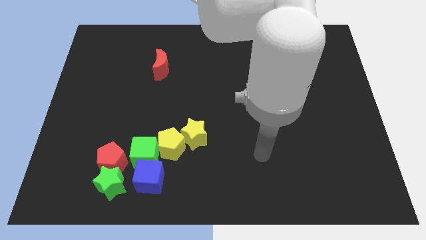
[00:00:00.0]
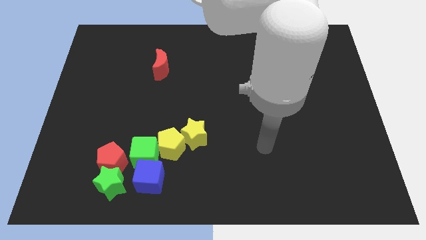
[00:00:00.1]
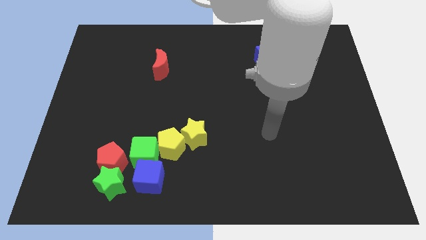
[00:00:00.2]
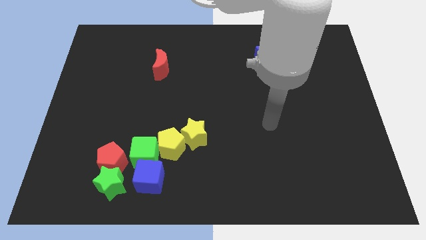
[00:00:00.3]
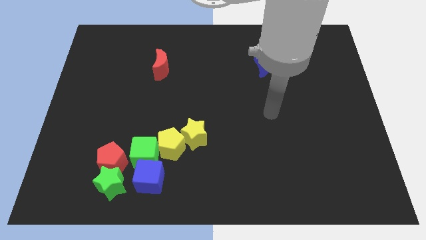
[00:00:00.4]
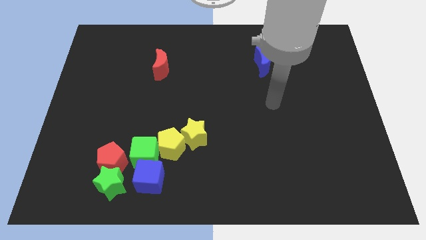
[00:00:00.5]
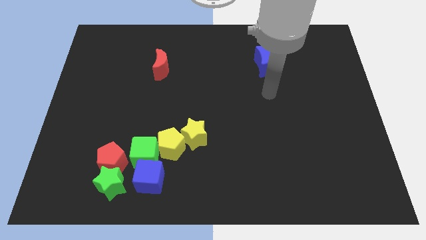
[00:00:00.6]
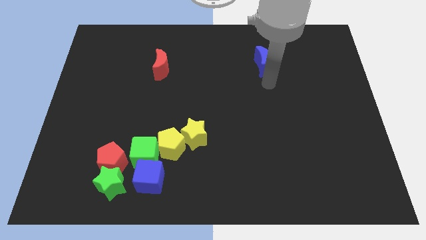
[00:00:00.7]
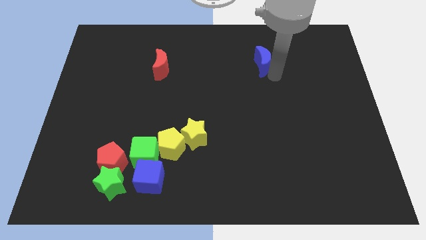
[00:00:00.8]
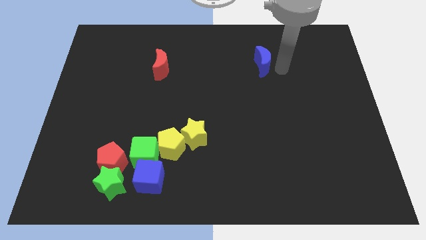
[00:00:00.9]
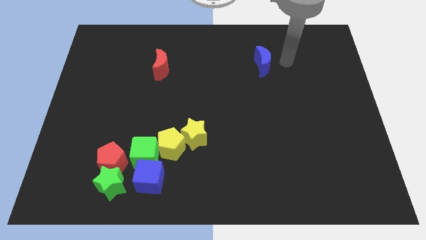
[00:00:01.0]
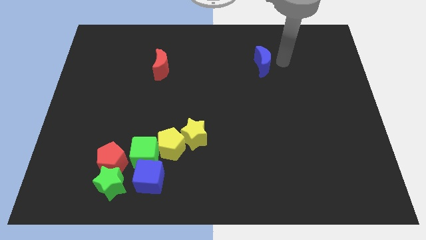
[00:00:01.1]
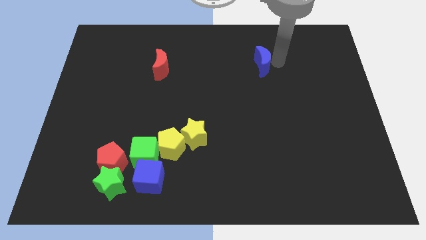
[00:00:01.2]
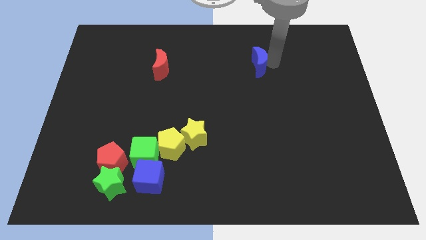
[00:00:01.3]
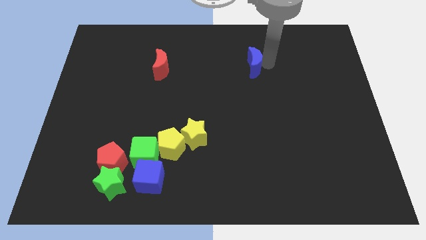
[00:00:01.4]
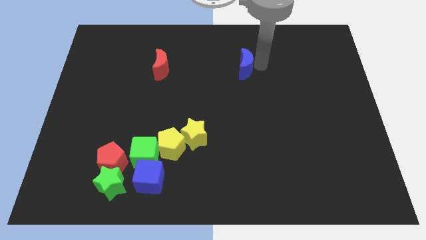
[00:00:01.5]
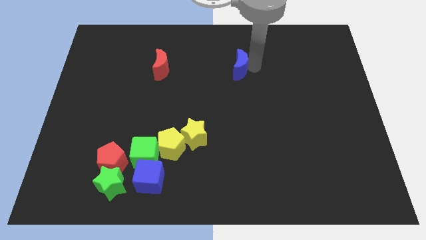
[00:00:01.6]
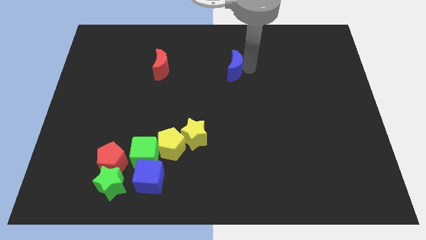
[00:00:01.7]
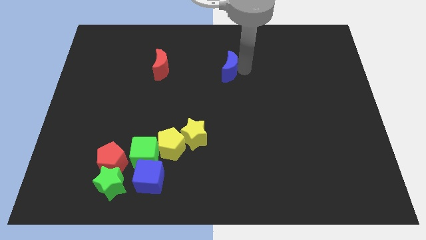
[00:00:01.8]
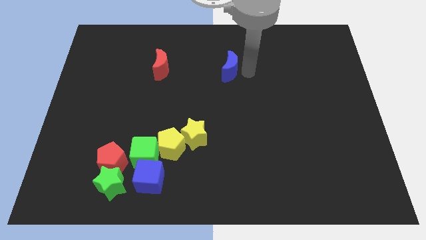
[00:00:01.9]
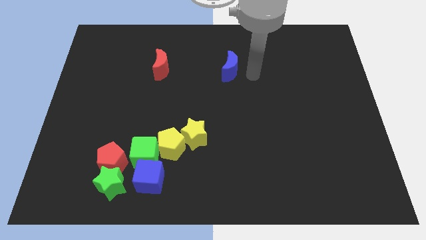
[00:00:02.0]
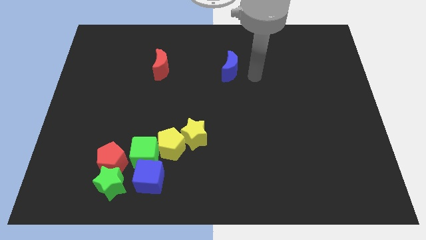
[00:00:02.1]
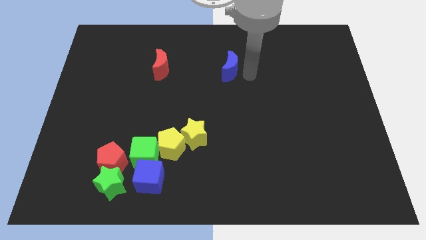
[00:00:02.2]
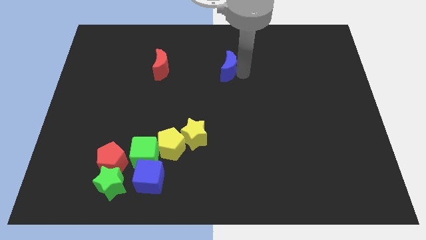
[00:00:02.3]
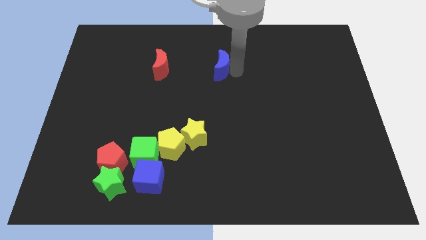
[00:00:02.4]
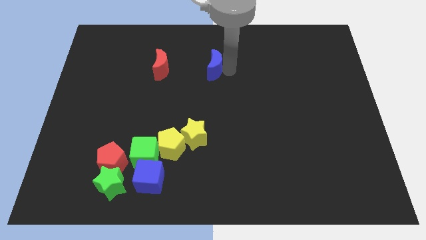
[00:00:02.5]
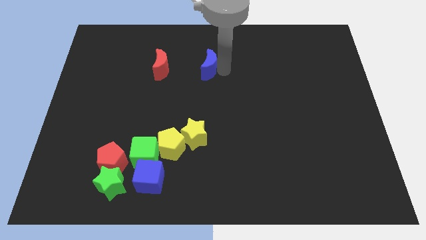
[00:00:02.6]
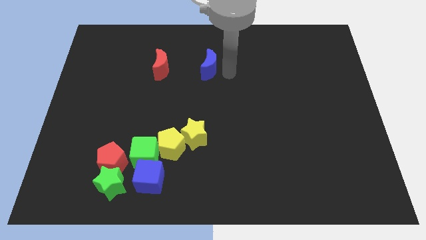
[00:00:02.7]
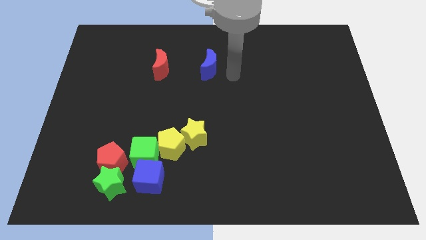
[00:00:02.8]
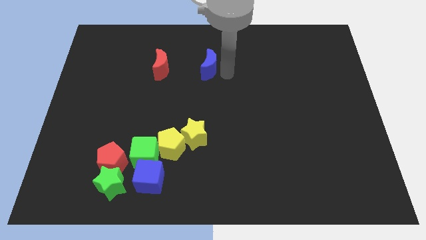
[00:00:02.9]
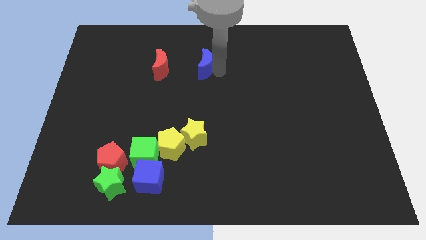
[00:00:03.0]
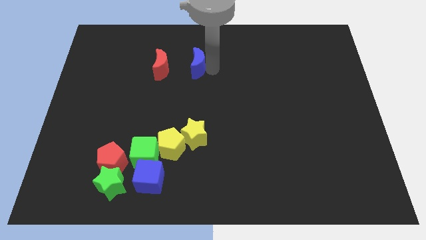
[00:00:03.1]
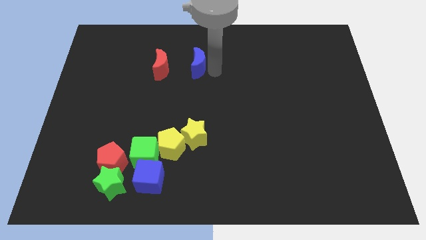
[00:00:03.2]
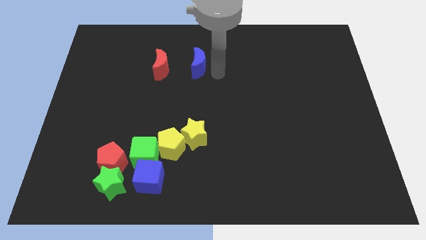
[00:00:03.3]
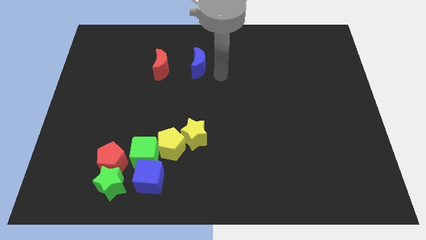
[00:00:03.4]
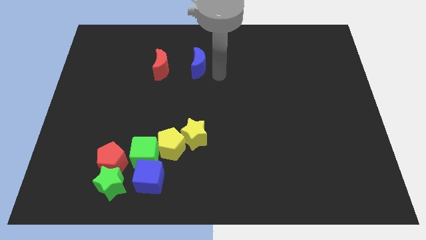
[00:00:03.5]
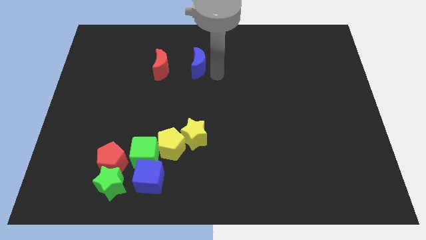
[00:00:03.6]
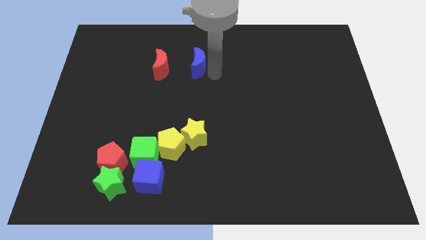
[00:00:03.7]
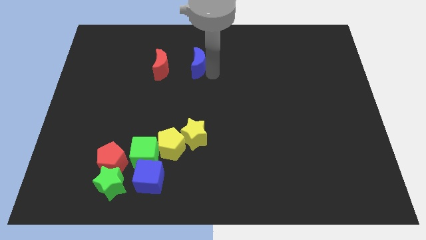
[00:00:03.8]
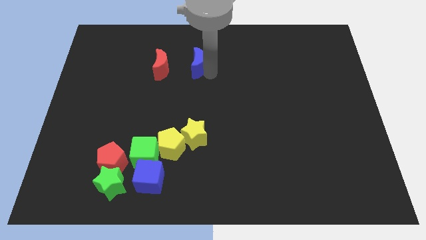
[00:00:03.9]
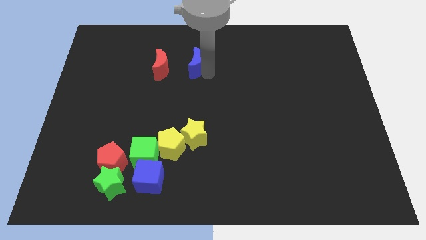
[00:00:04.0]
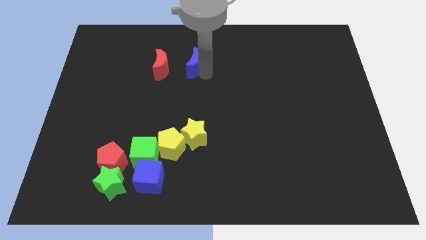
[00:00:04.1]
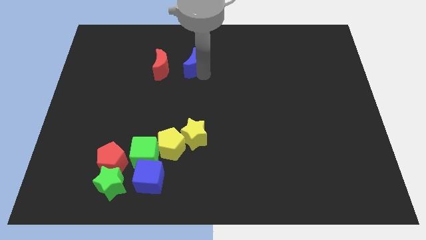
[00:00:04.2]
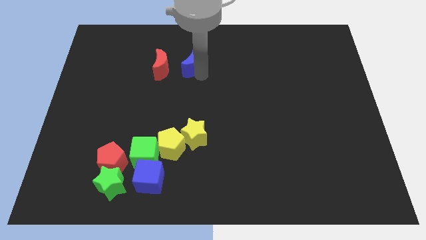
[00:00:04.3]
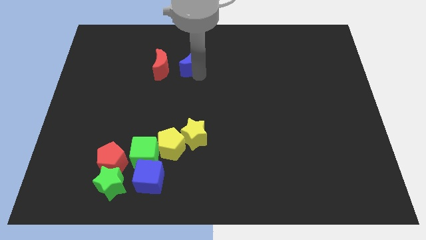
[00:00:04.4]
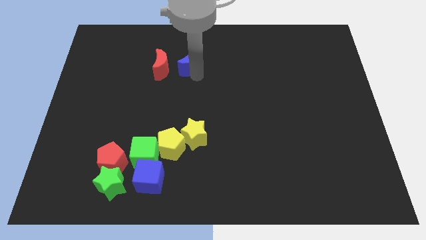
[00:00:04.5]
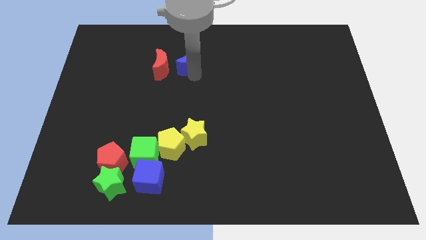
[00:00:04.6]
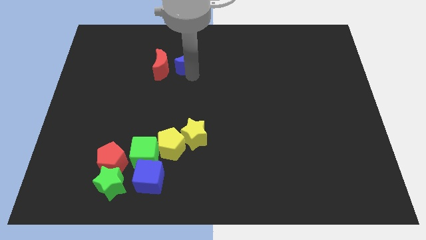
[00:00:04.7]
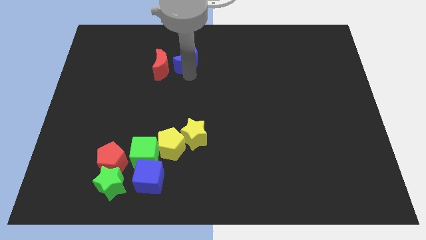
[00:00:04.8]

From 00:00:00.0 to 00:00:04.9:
slide the blue moon to the left

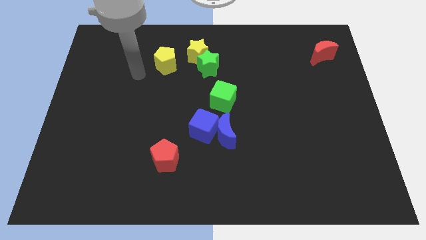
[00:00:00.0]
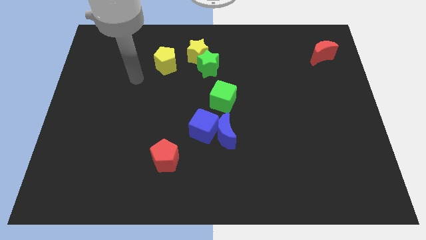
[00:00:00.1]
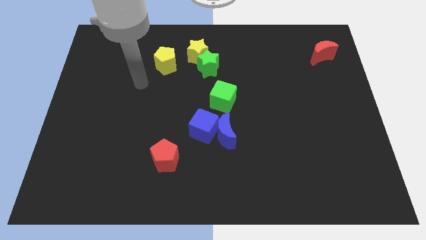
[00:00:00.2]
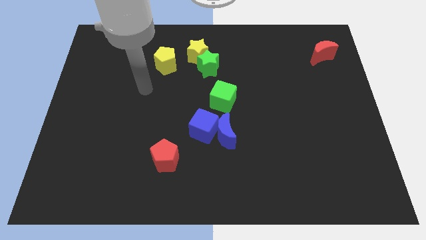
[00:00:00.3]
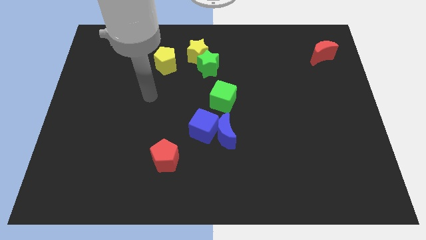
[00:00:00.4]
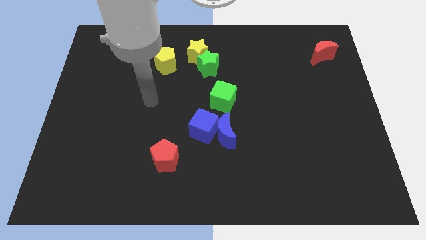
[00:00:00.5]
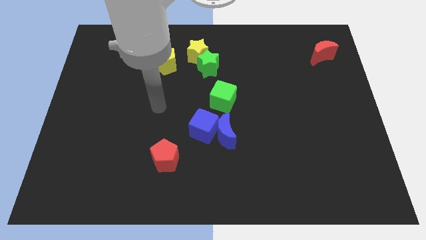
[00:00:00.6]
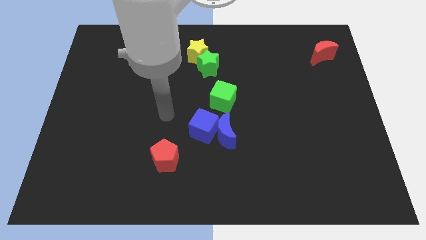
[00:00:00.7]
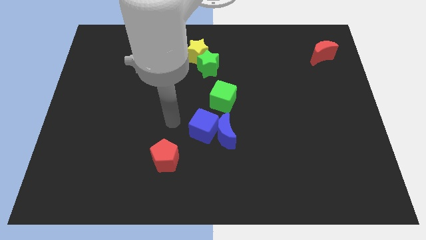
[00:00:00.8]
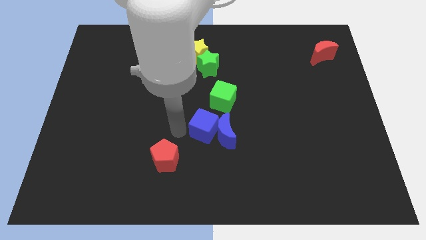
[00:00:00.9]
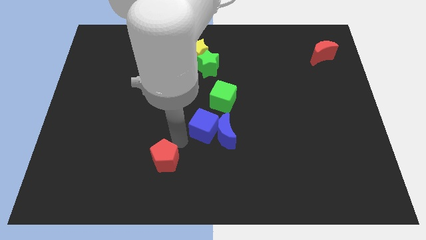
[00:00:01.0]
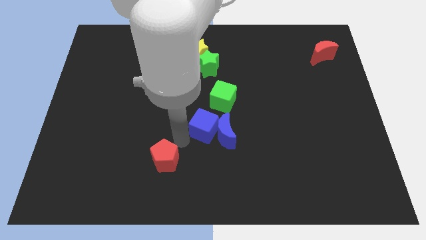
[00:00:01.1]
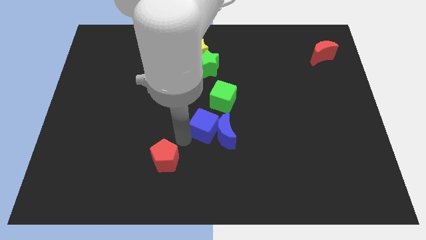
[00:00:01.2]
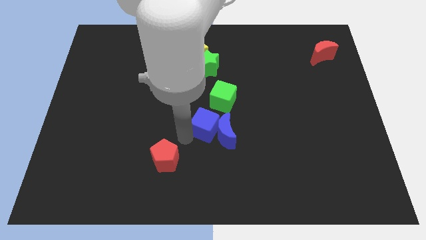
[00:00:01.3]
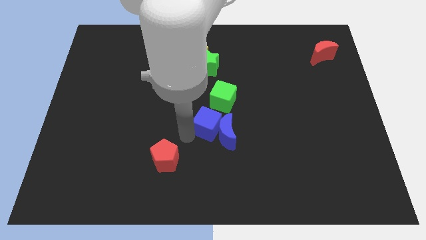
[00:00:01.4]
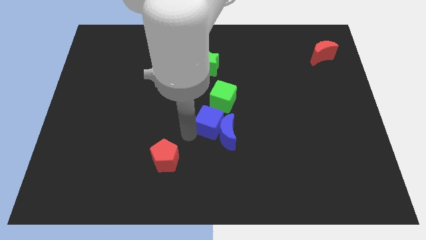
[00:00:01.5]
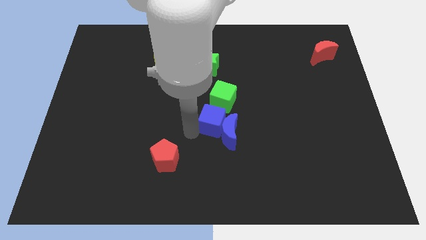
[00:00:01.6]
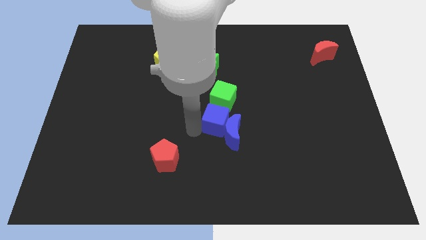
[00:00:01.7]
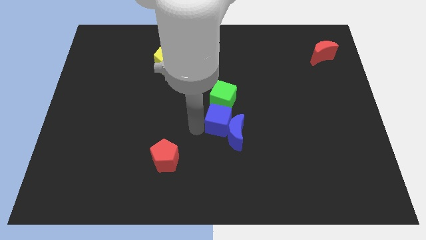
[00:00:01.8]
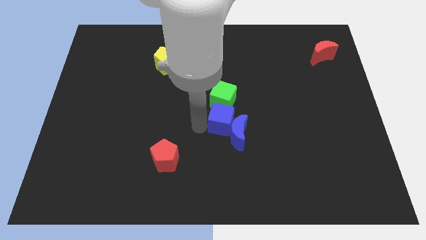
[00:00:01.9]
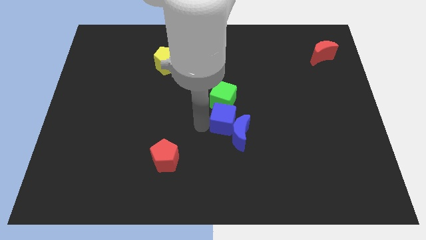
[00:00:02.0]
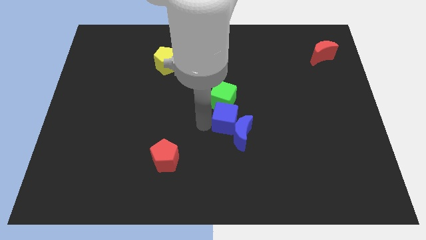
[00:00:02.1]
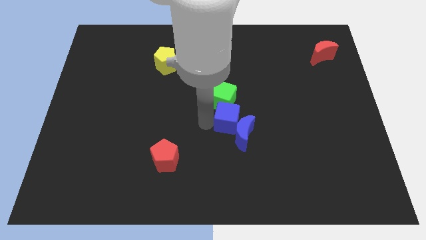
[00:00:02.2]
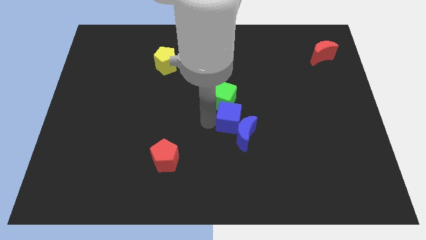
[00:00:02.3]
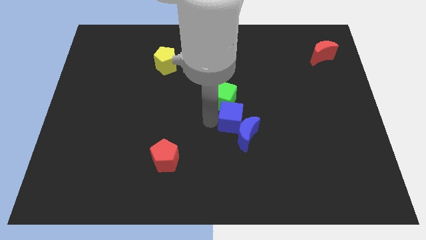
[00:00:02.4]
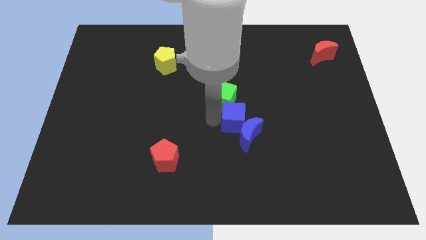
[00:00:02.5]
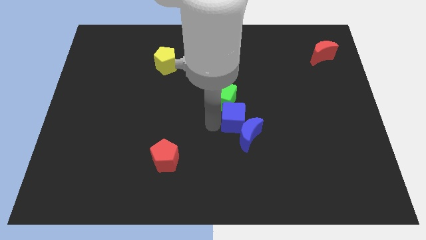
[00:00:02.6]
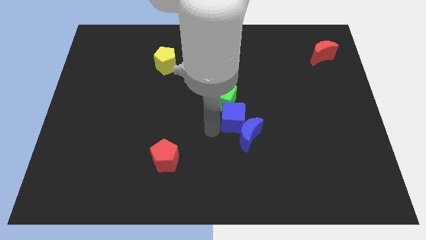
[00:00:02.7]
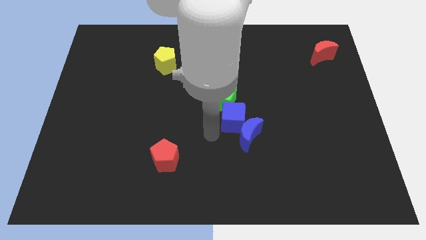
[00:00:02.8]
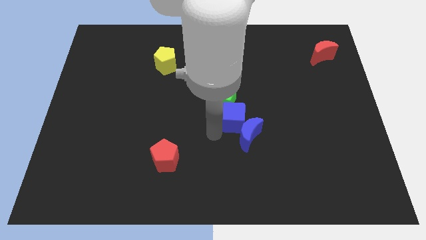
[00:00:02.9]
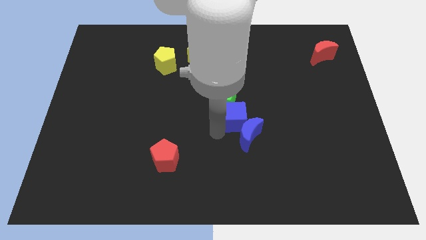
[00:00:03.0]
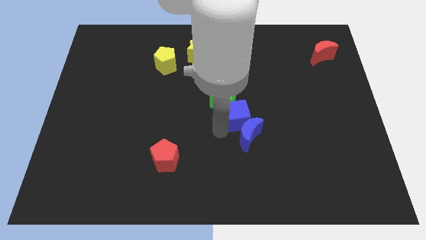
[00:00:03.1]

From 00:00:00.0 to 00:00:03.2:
slide the blue cube slightly upwards and to the right diagonally

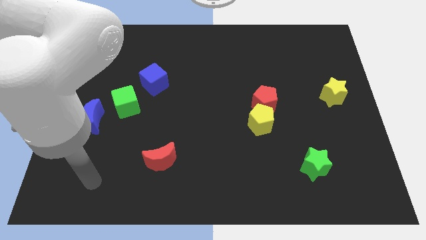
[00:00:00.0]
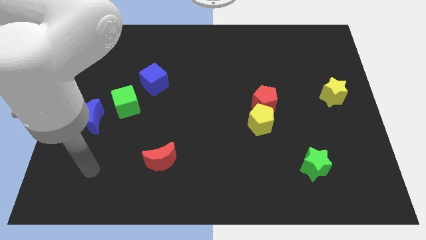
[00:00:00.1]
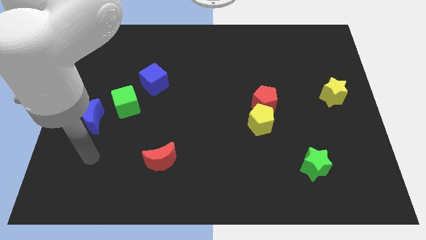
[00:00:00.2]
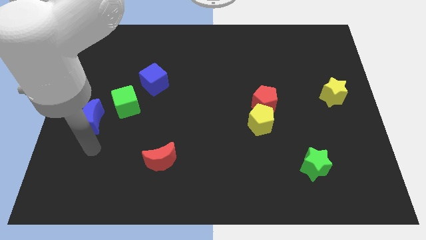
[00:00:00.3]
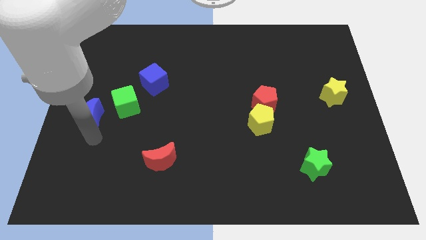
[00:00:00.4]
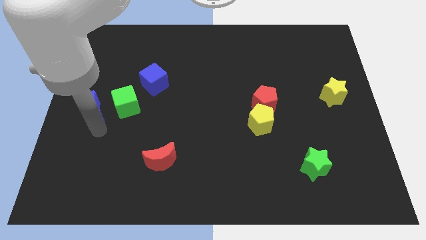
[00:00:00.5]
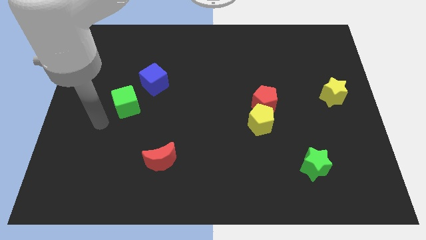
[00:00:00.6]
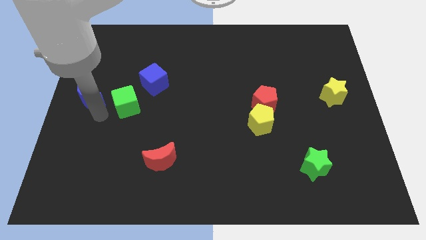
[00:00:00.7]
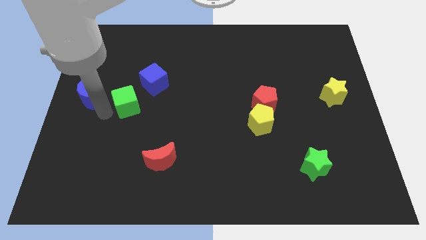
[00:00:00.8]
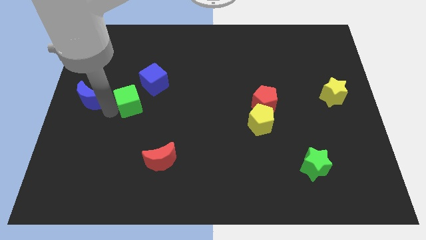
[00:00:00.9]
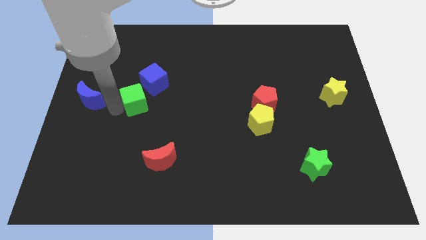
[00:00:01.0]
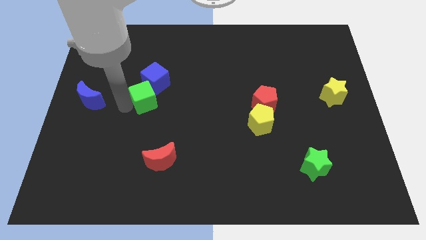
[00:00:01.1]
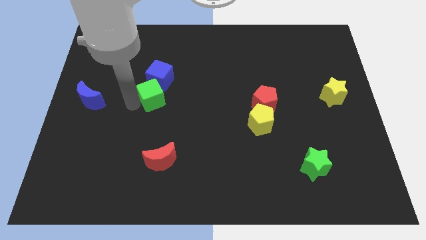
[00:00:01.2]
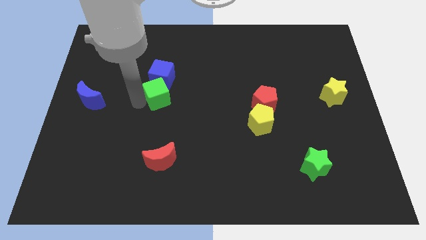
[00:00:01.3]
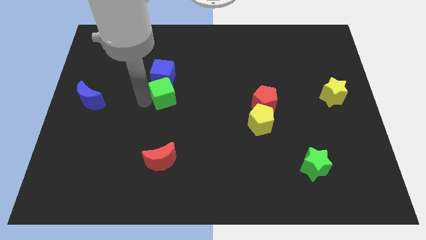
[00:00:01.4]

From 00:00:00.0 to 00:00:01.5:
move the green cube a bit up and to the right diagonally
